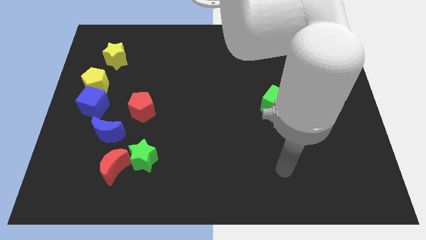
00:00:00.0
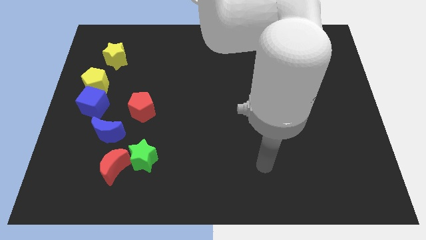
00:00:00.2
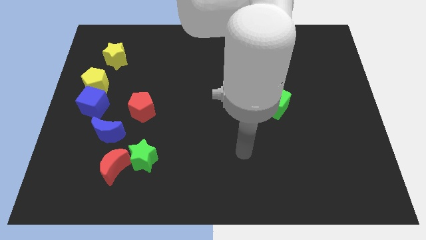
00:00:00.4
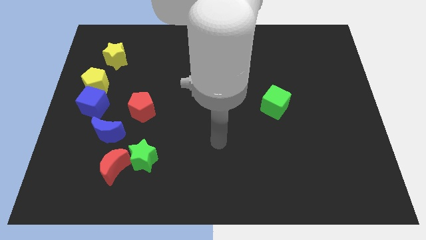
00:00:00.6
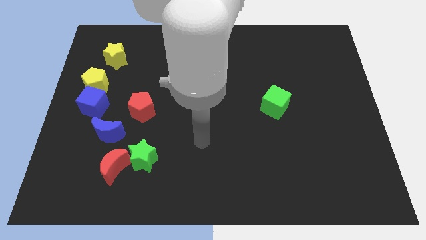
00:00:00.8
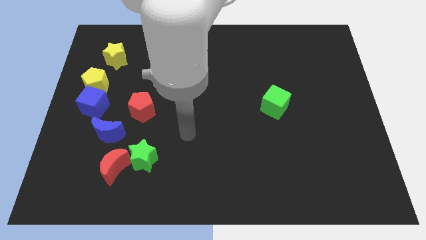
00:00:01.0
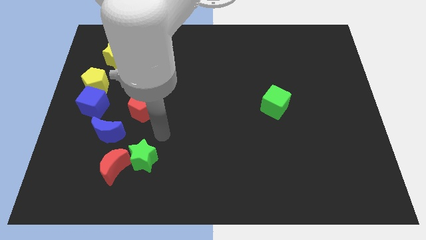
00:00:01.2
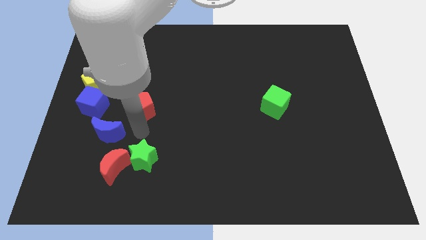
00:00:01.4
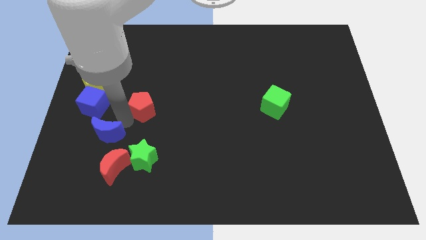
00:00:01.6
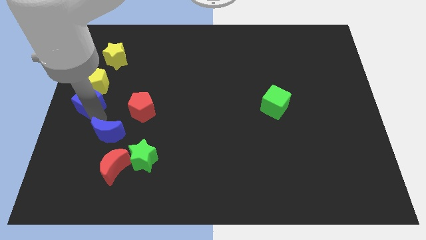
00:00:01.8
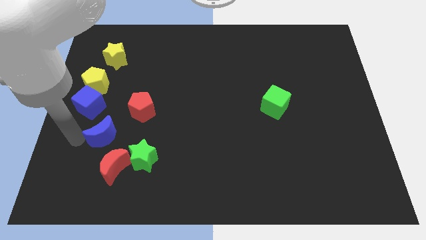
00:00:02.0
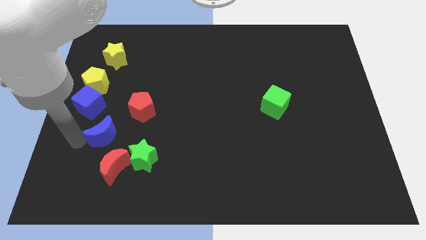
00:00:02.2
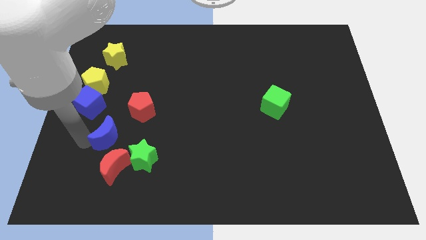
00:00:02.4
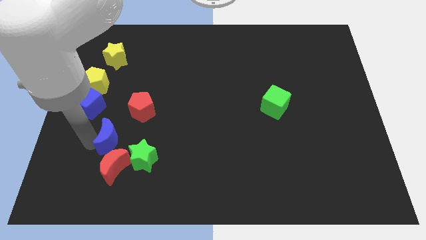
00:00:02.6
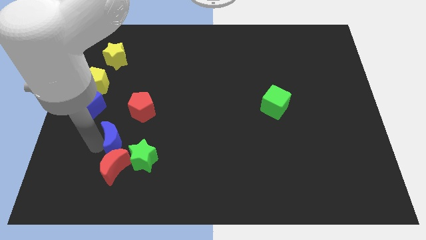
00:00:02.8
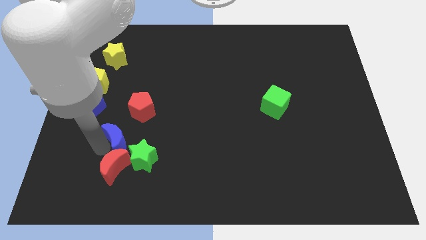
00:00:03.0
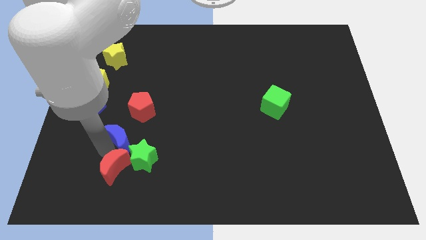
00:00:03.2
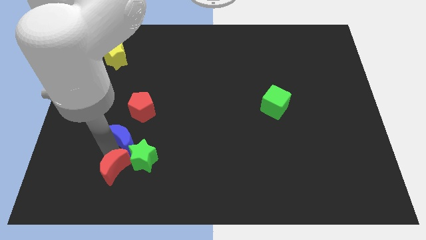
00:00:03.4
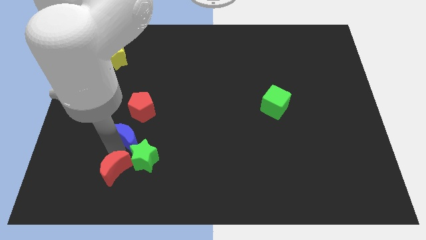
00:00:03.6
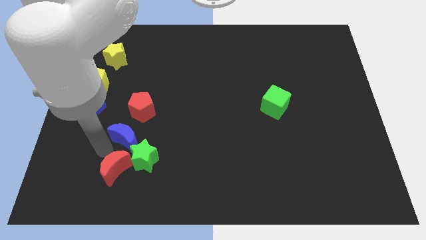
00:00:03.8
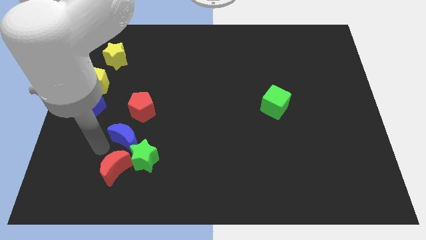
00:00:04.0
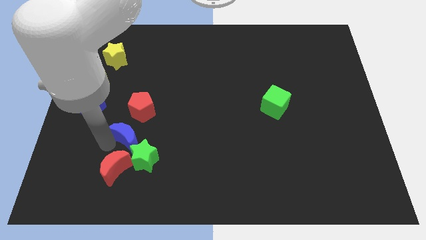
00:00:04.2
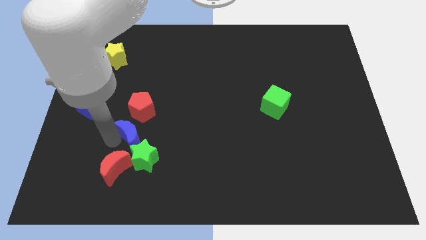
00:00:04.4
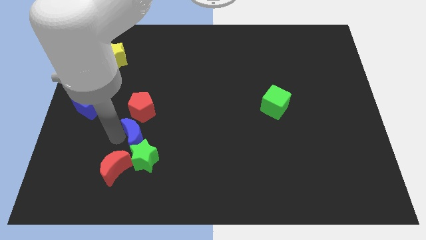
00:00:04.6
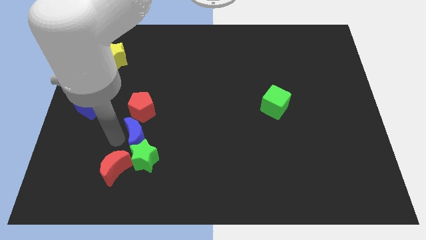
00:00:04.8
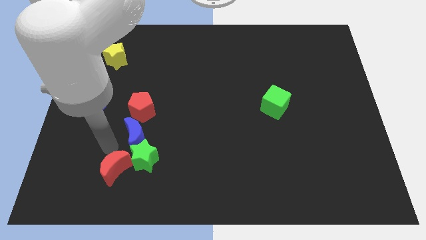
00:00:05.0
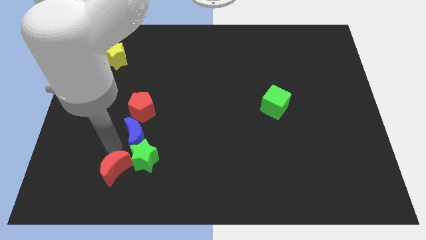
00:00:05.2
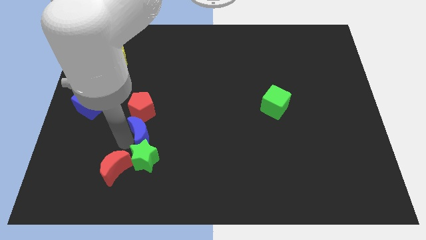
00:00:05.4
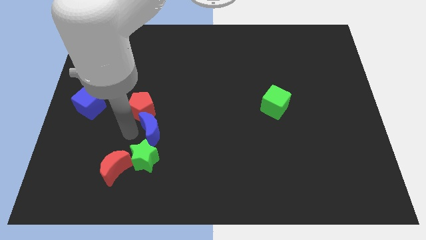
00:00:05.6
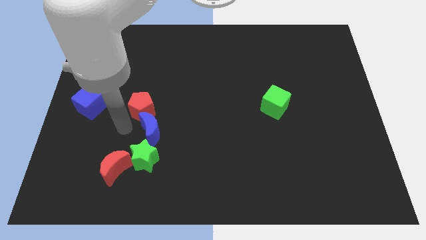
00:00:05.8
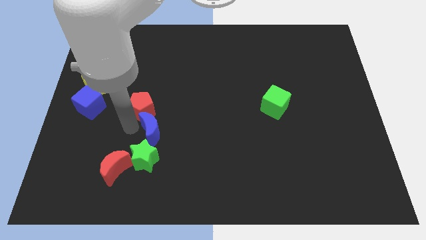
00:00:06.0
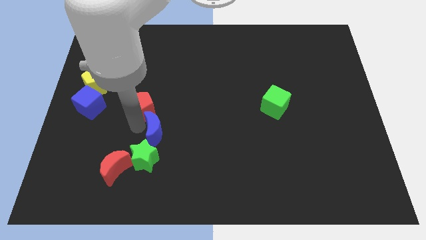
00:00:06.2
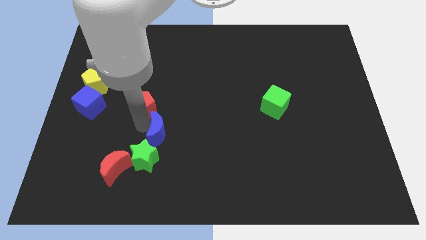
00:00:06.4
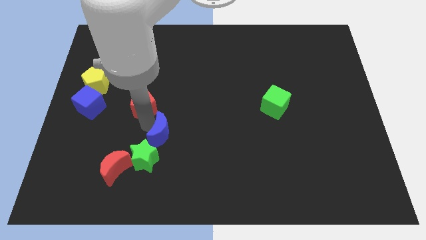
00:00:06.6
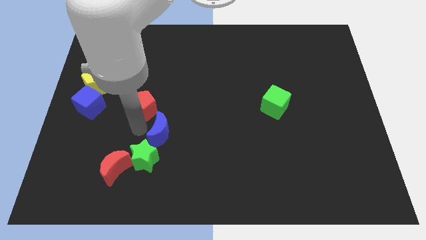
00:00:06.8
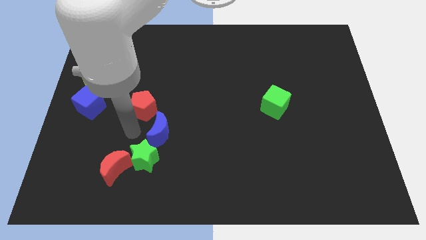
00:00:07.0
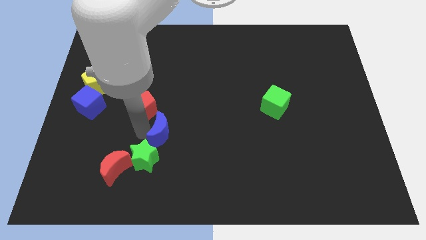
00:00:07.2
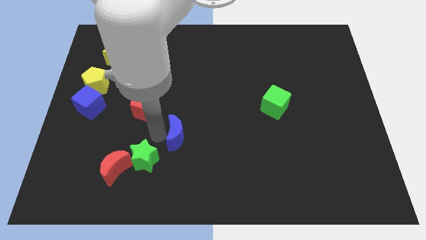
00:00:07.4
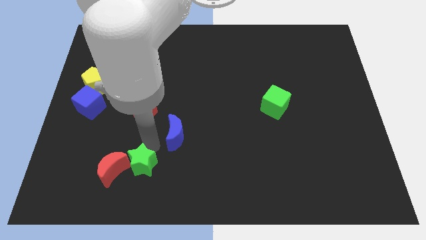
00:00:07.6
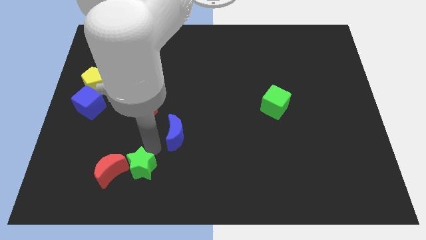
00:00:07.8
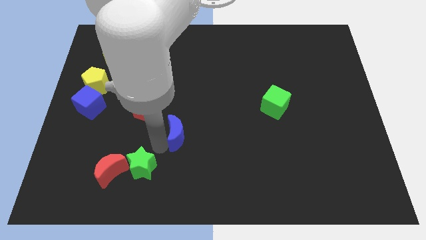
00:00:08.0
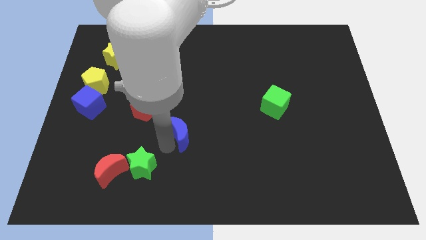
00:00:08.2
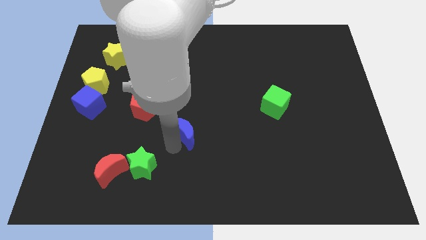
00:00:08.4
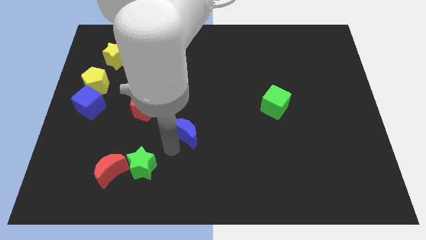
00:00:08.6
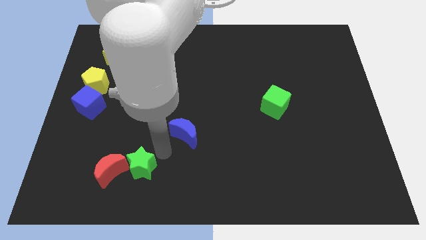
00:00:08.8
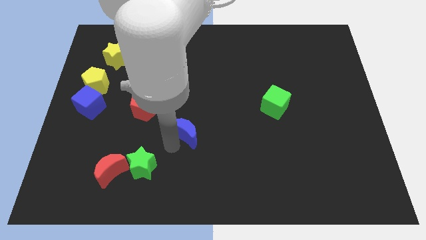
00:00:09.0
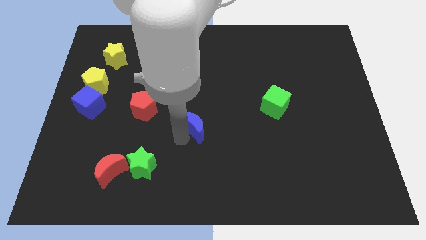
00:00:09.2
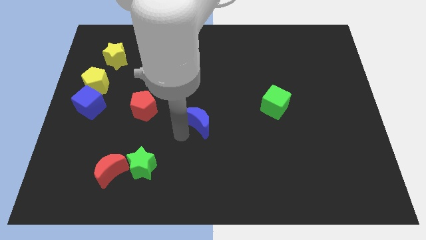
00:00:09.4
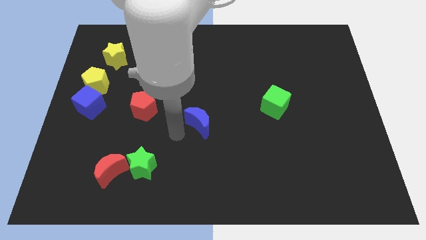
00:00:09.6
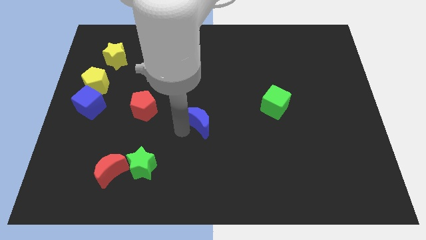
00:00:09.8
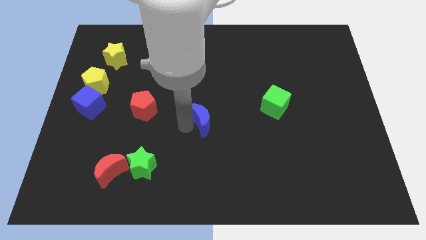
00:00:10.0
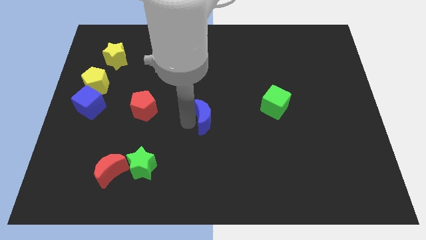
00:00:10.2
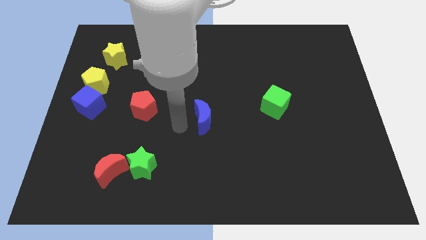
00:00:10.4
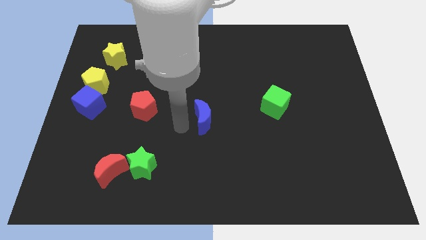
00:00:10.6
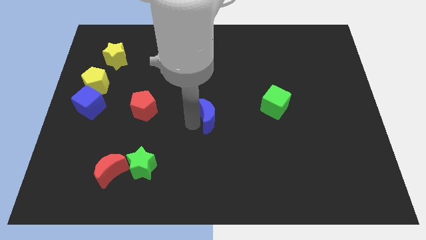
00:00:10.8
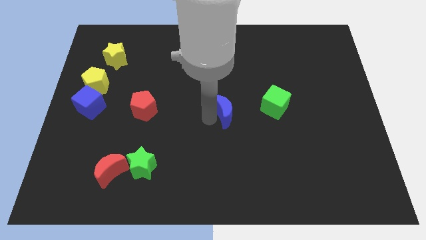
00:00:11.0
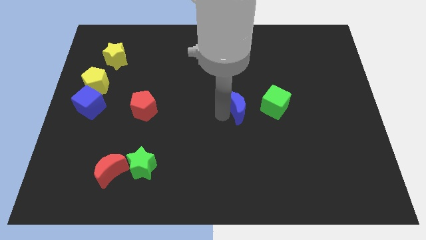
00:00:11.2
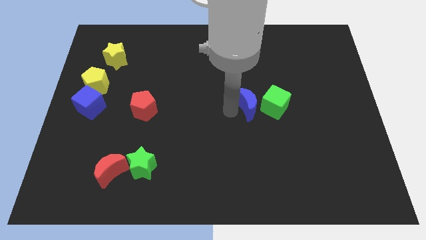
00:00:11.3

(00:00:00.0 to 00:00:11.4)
push the blue moon towards the green cube
